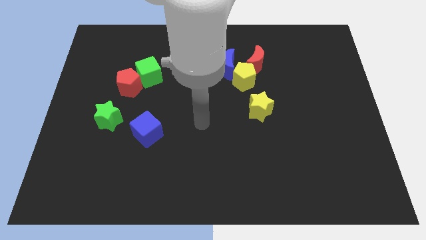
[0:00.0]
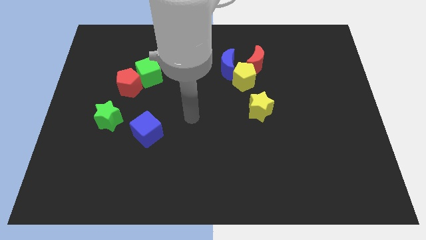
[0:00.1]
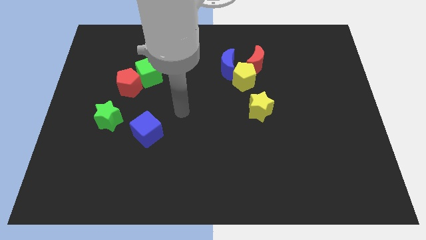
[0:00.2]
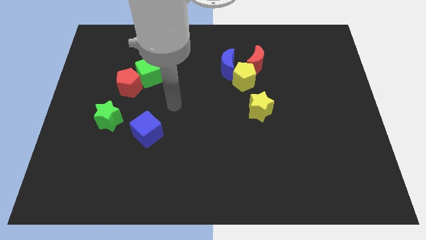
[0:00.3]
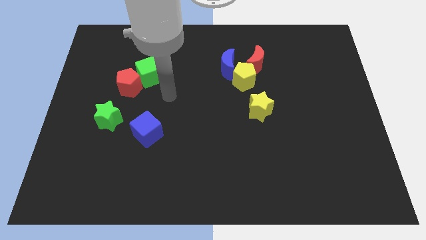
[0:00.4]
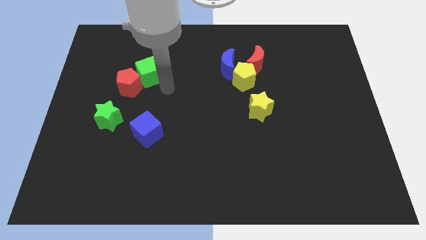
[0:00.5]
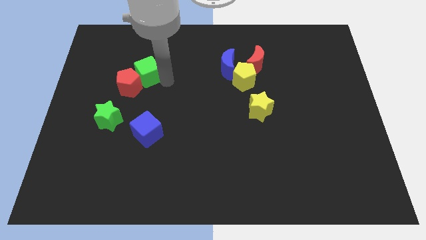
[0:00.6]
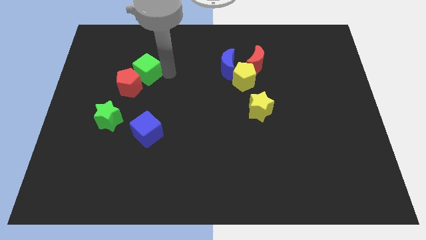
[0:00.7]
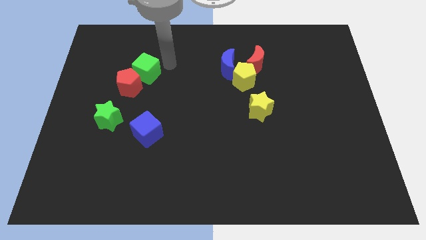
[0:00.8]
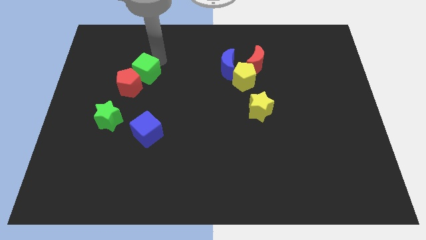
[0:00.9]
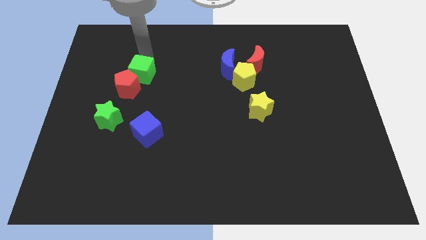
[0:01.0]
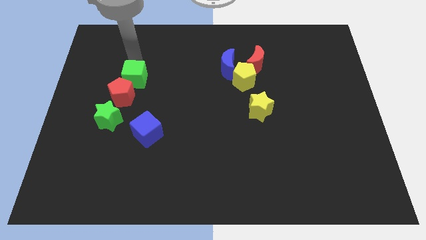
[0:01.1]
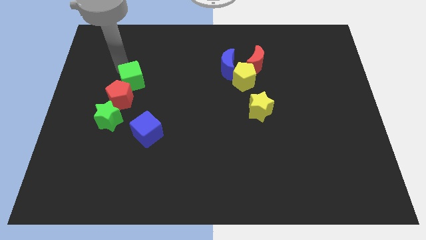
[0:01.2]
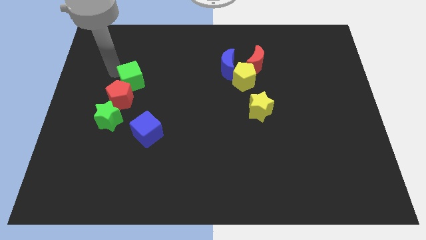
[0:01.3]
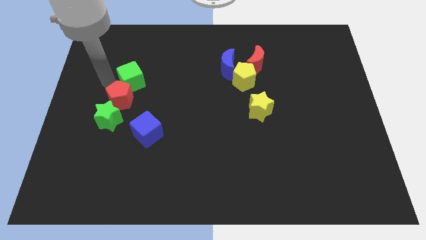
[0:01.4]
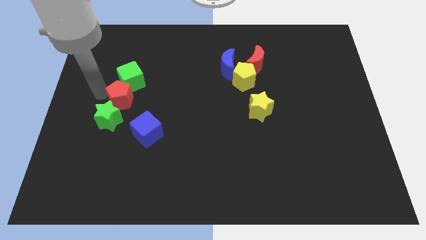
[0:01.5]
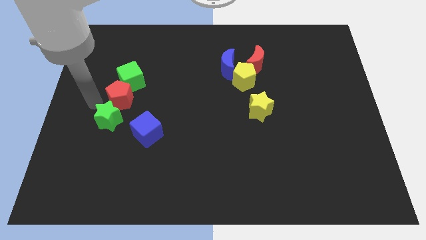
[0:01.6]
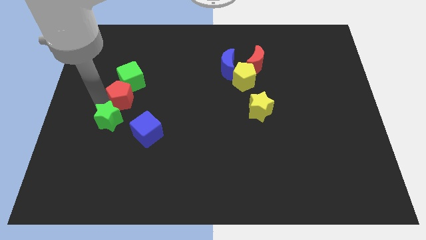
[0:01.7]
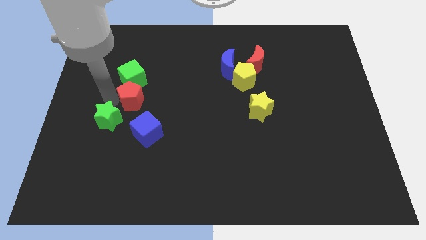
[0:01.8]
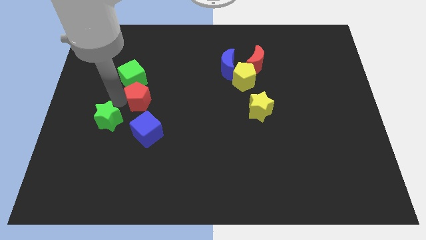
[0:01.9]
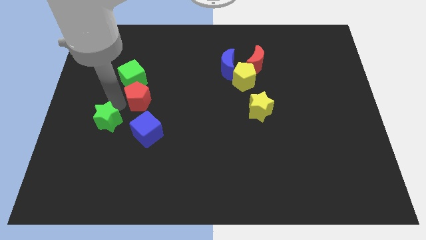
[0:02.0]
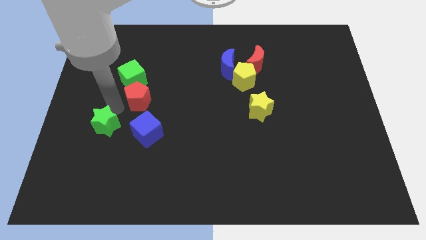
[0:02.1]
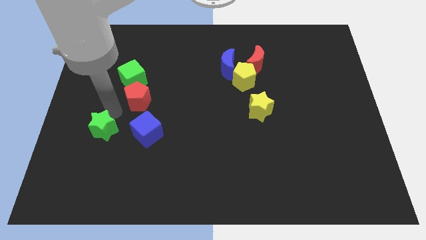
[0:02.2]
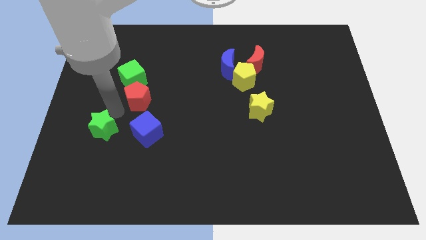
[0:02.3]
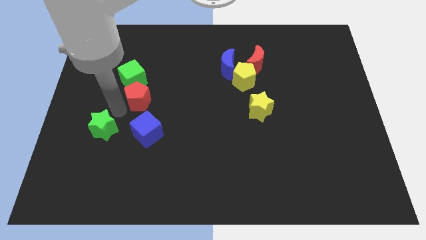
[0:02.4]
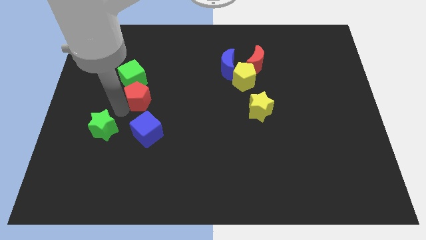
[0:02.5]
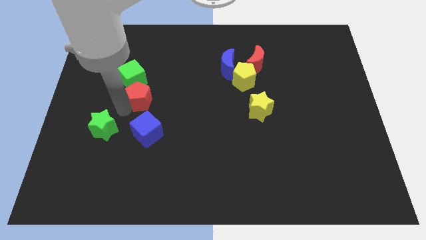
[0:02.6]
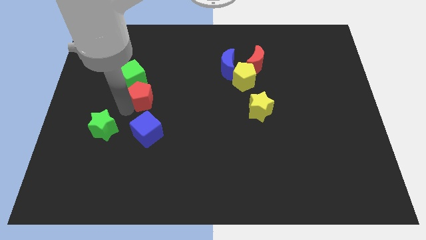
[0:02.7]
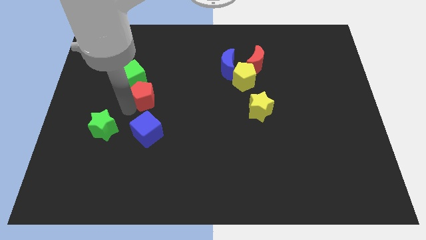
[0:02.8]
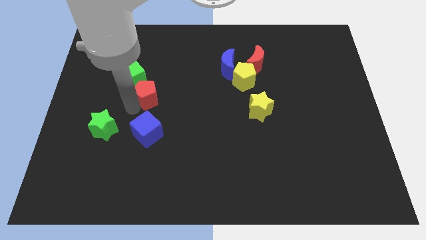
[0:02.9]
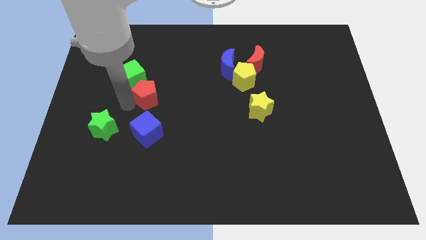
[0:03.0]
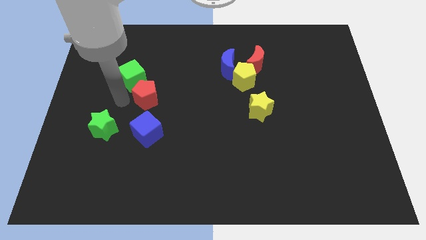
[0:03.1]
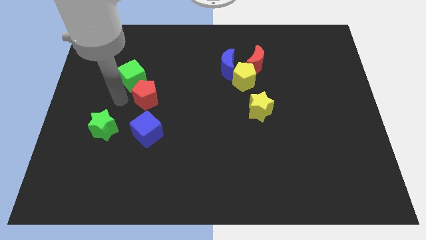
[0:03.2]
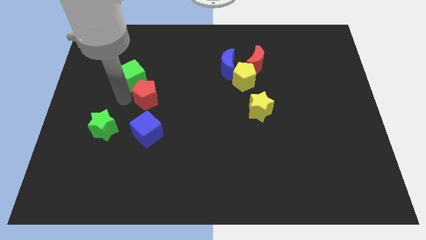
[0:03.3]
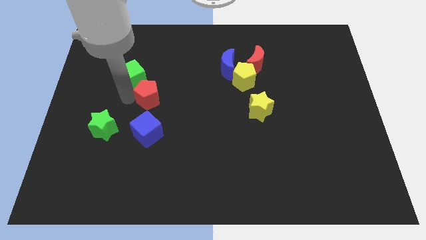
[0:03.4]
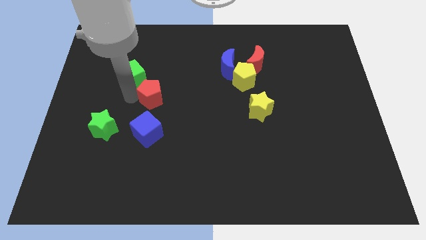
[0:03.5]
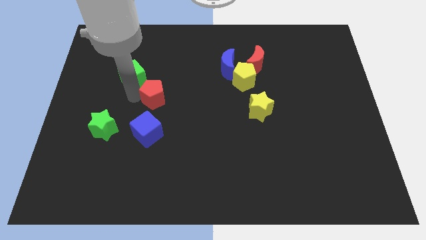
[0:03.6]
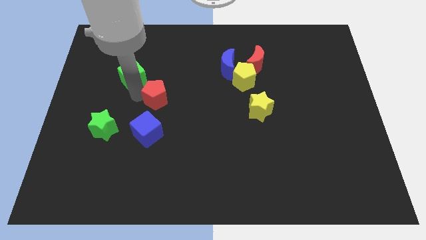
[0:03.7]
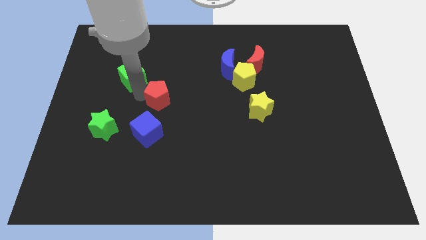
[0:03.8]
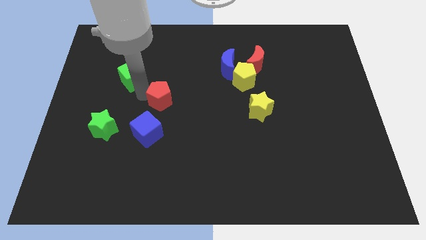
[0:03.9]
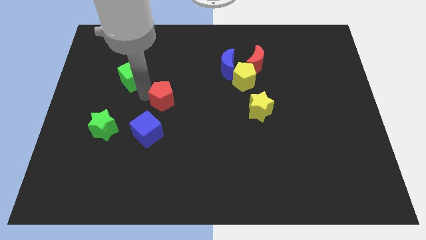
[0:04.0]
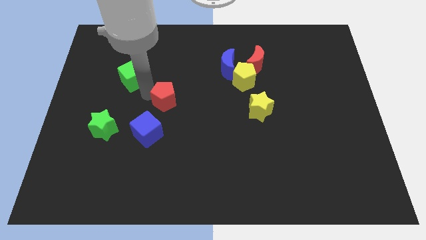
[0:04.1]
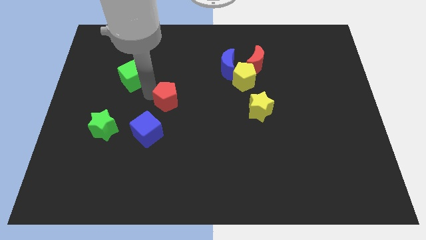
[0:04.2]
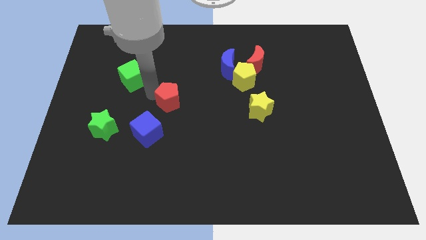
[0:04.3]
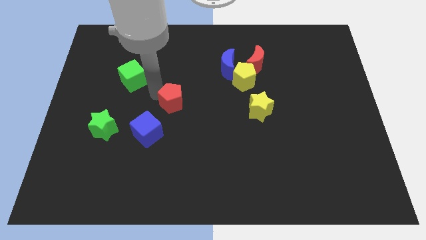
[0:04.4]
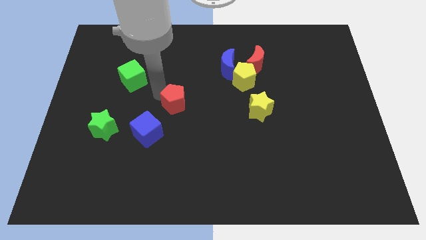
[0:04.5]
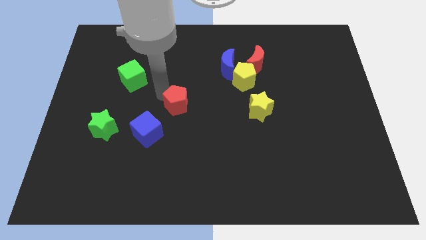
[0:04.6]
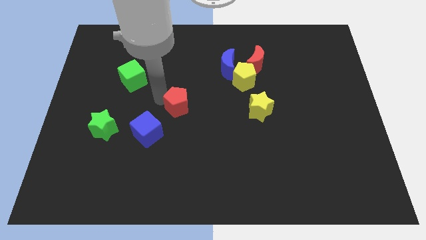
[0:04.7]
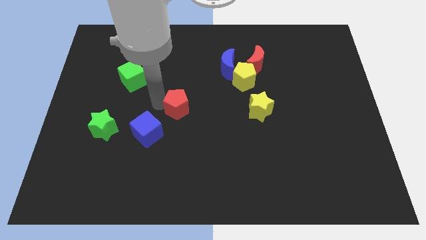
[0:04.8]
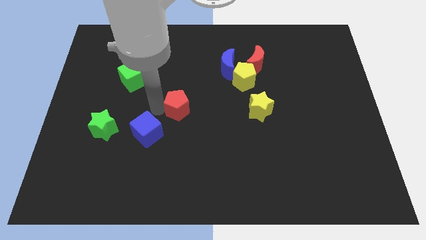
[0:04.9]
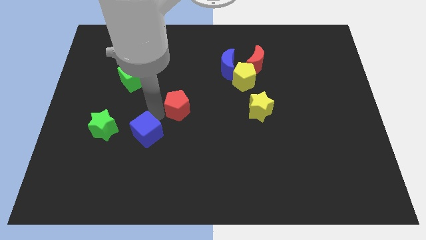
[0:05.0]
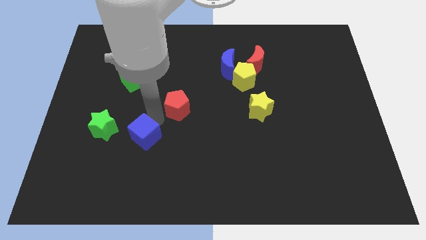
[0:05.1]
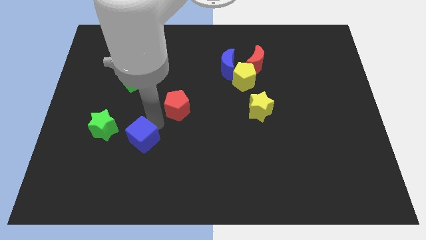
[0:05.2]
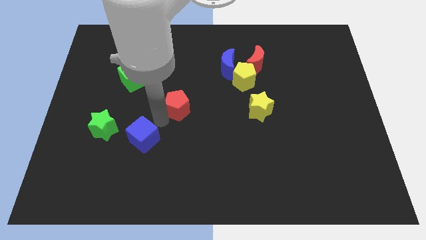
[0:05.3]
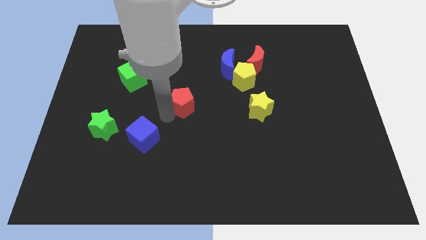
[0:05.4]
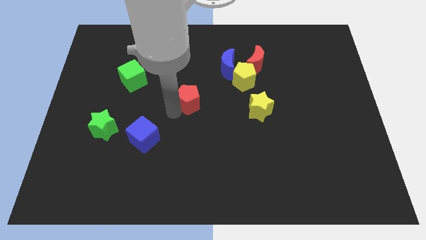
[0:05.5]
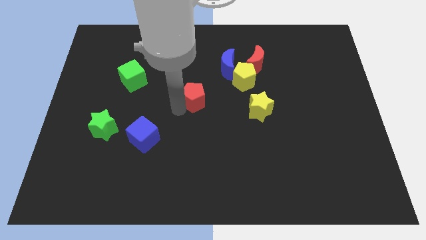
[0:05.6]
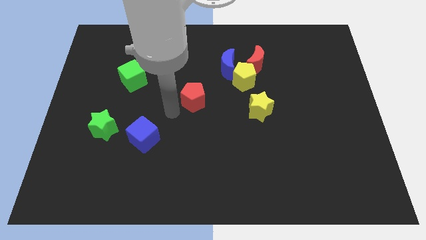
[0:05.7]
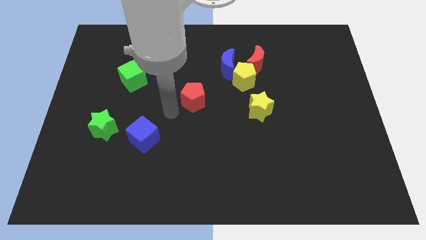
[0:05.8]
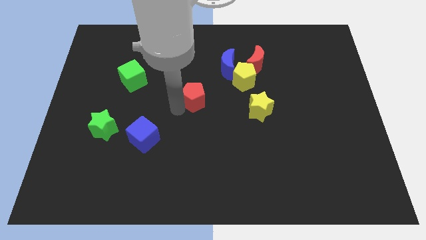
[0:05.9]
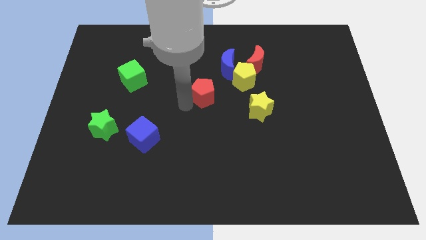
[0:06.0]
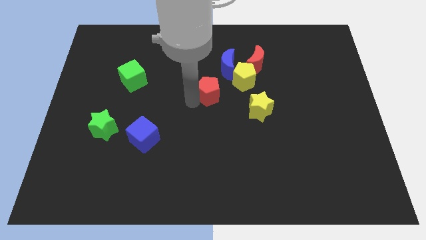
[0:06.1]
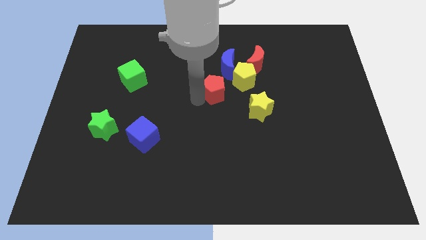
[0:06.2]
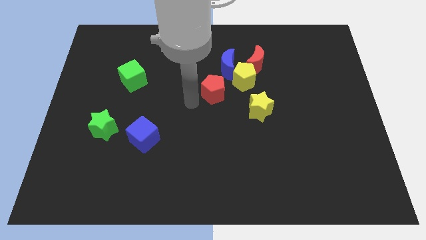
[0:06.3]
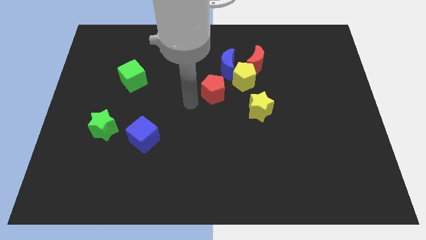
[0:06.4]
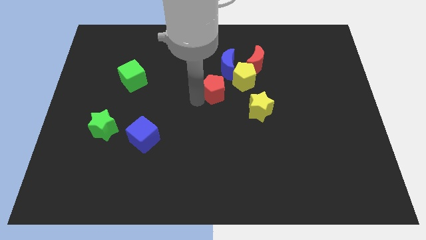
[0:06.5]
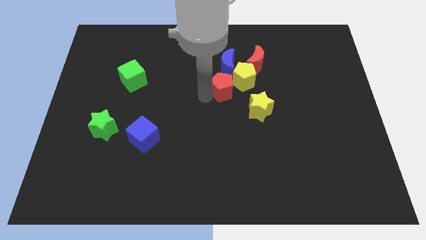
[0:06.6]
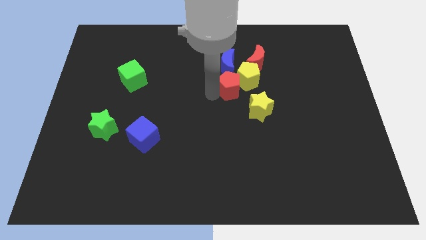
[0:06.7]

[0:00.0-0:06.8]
move the red pentagon next to the yellow pentagon

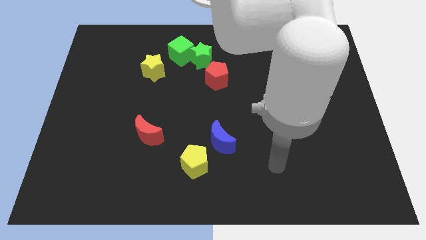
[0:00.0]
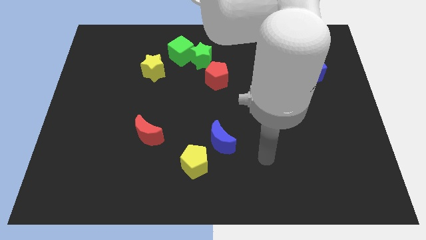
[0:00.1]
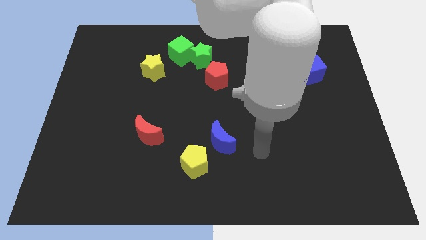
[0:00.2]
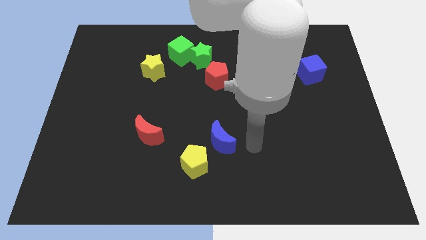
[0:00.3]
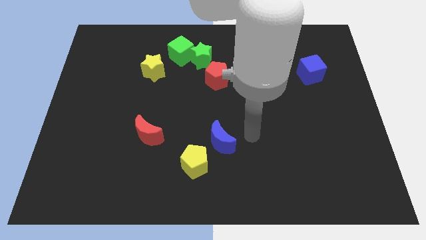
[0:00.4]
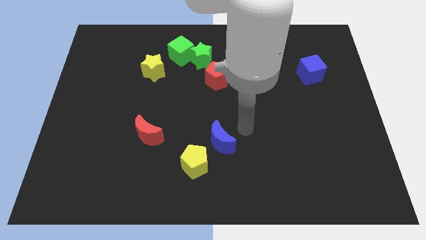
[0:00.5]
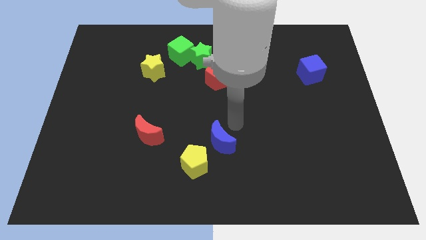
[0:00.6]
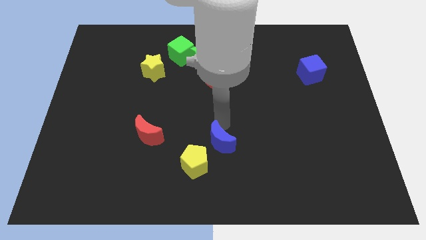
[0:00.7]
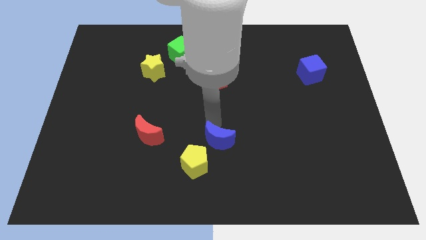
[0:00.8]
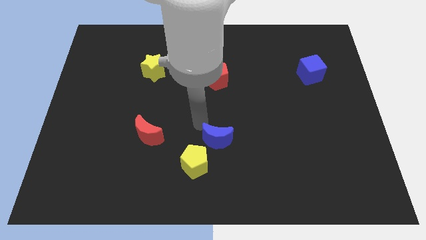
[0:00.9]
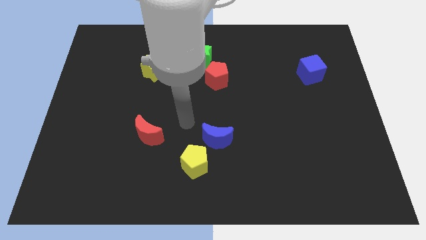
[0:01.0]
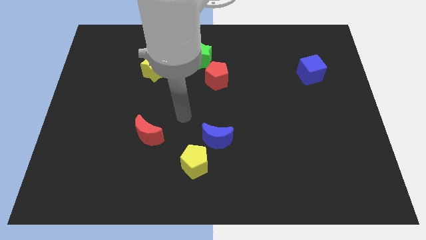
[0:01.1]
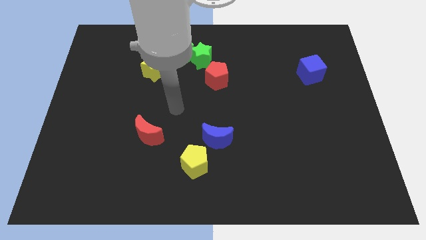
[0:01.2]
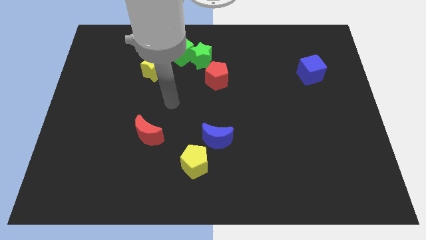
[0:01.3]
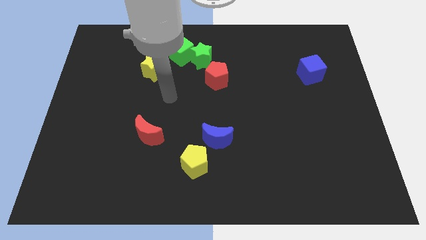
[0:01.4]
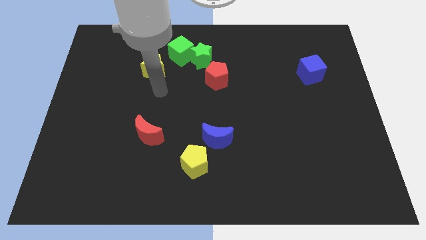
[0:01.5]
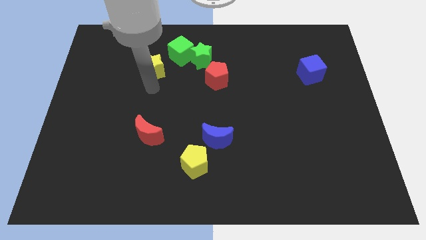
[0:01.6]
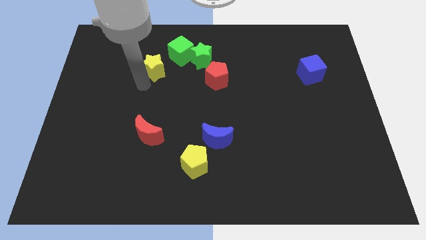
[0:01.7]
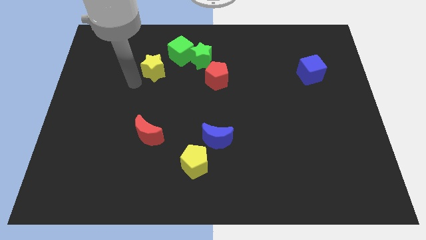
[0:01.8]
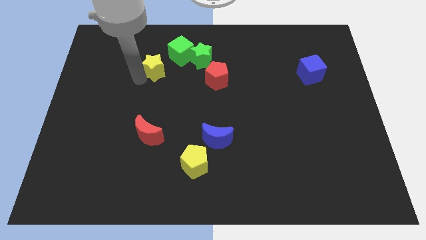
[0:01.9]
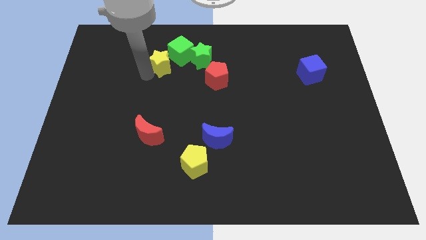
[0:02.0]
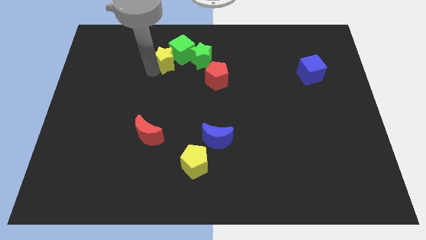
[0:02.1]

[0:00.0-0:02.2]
slide the yellow star next to the green cube
